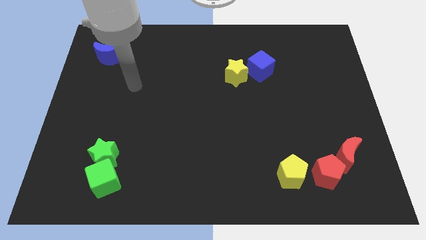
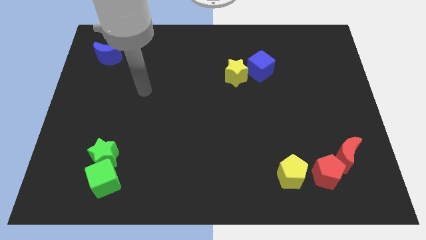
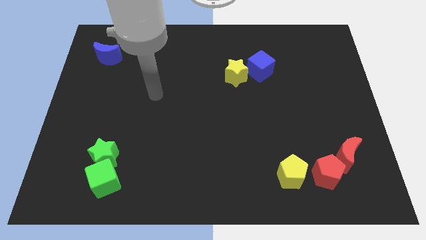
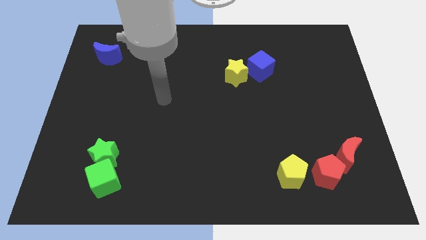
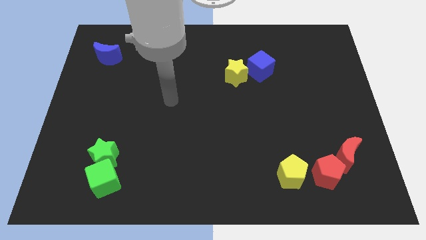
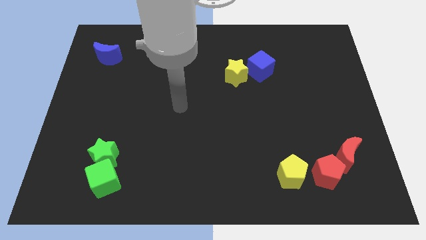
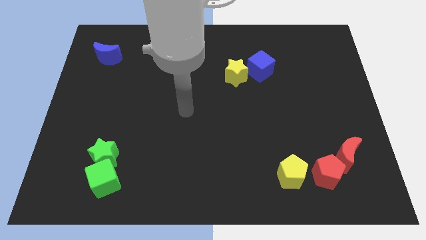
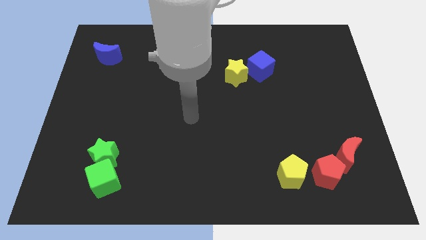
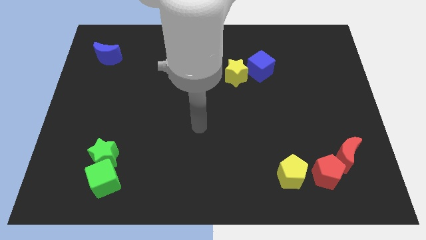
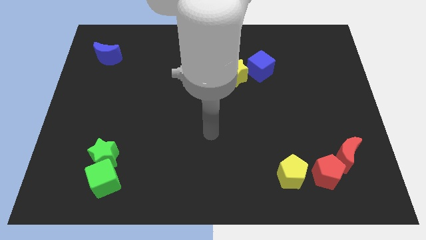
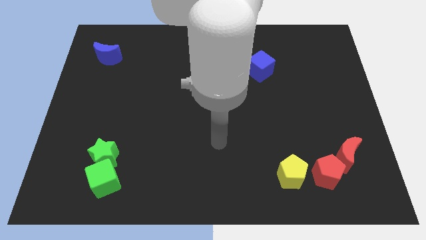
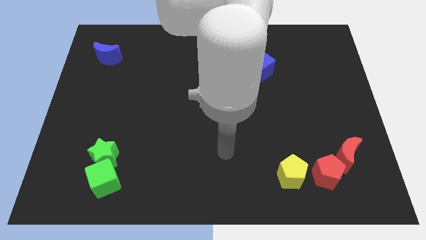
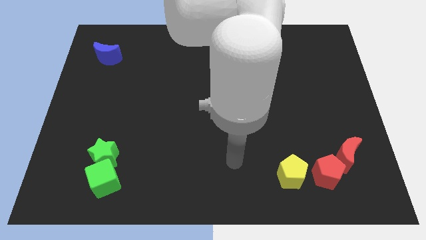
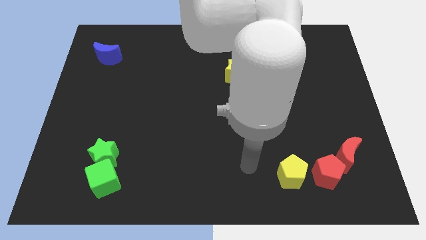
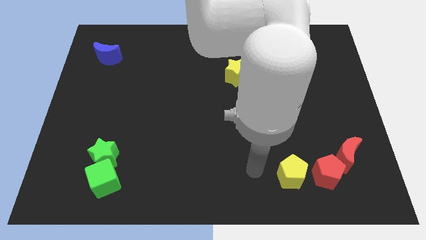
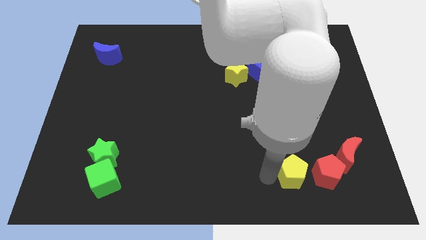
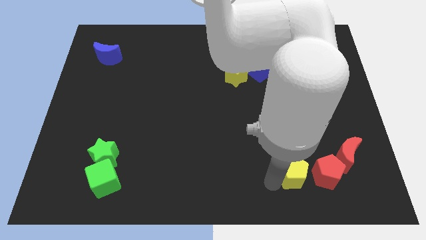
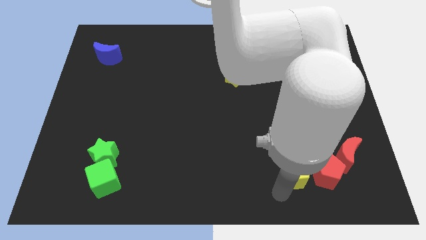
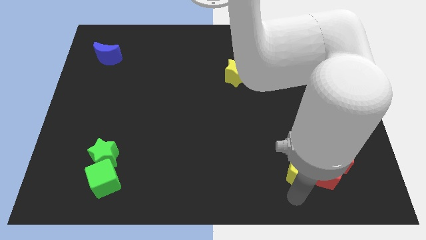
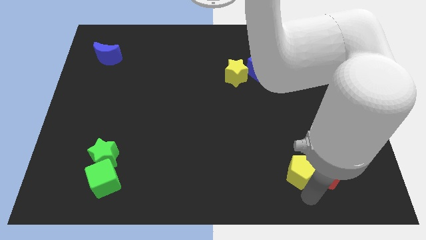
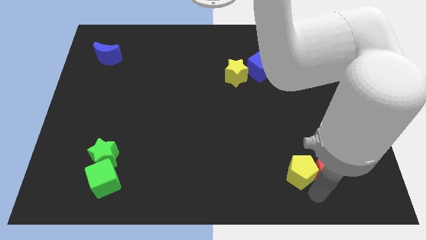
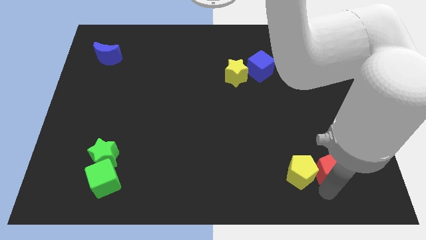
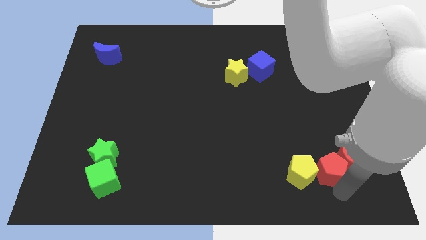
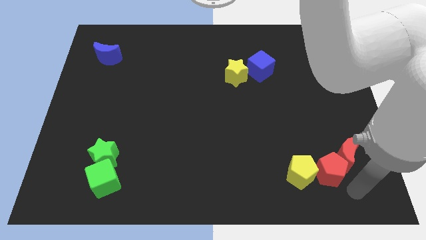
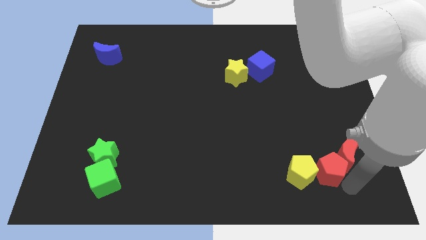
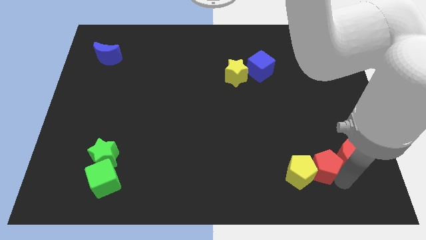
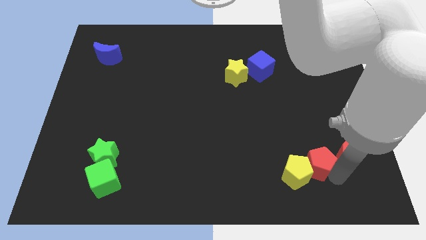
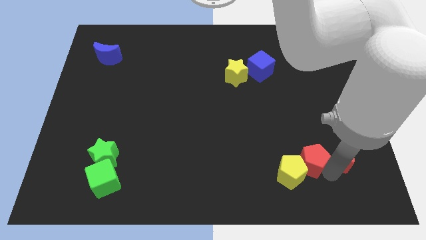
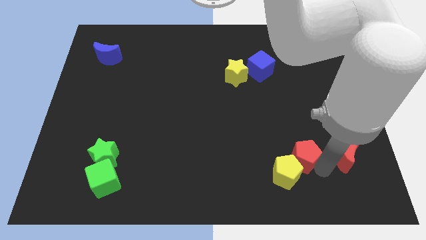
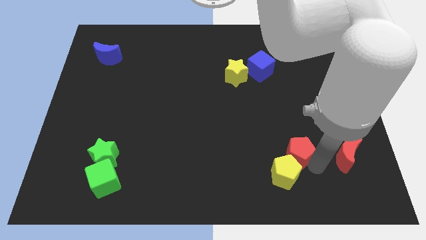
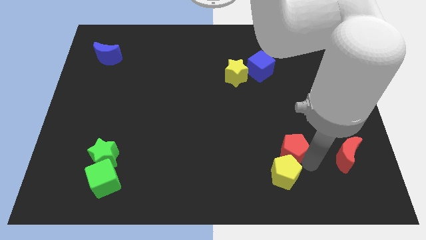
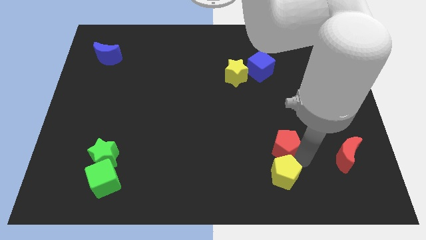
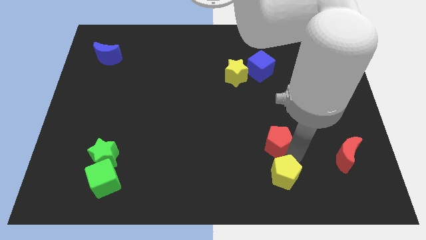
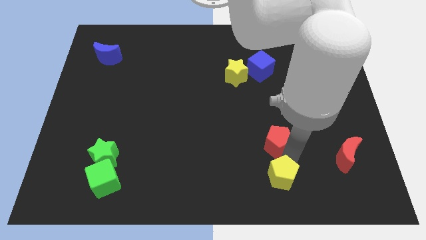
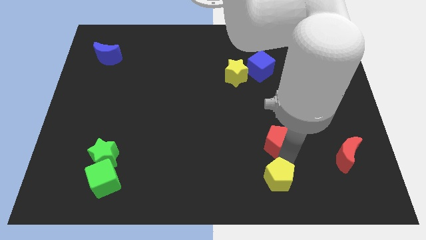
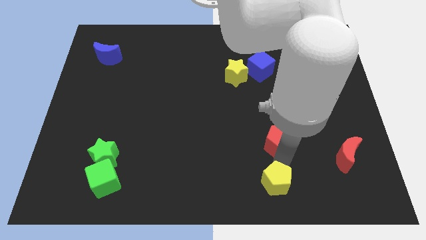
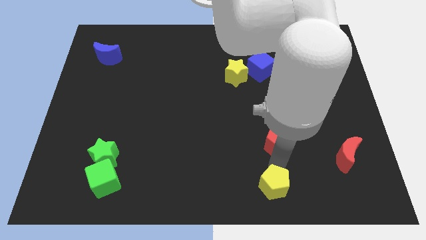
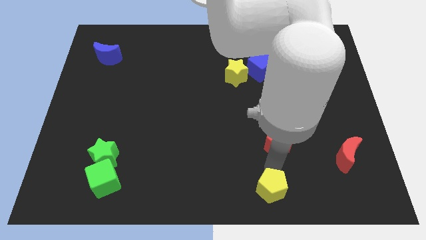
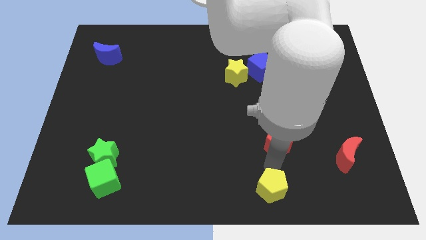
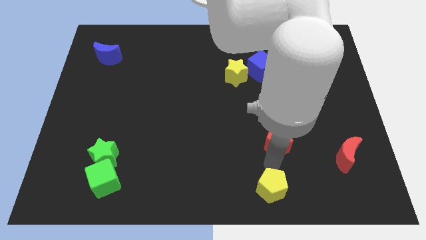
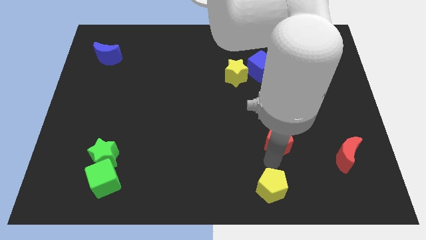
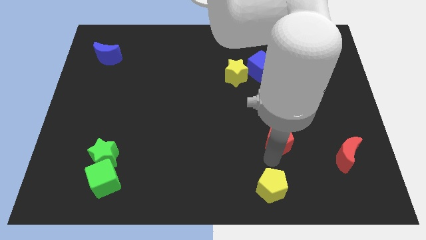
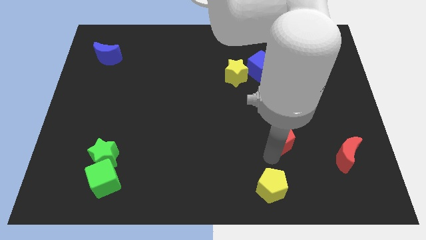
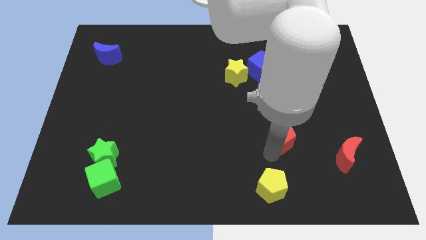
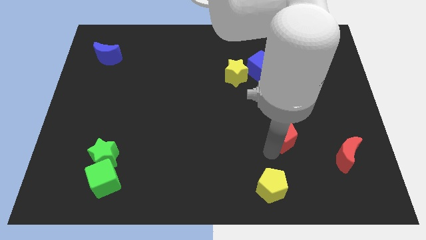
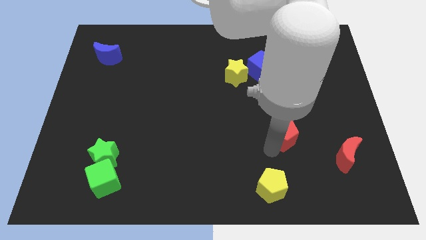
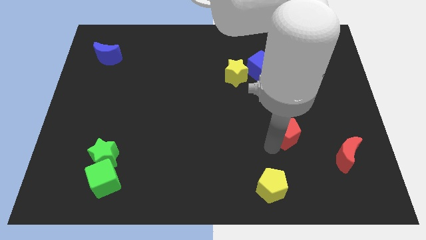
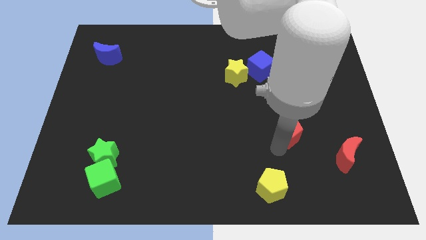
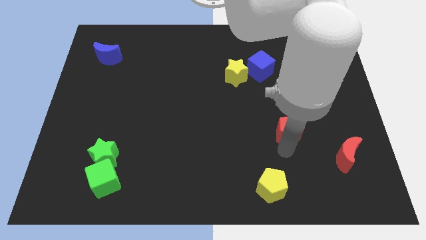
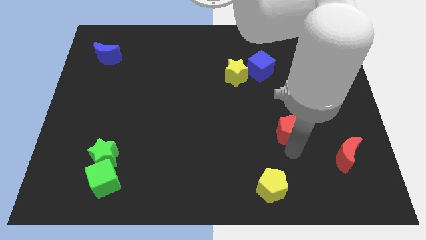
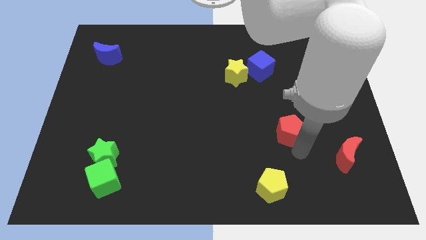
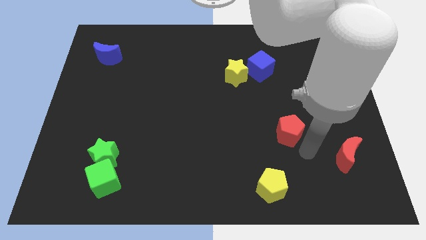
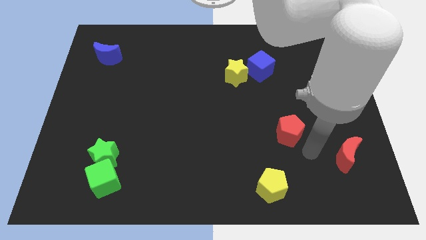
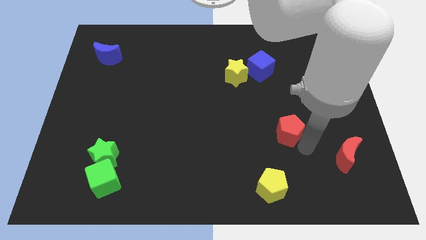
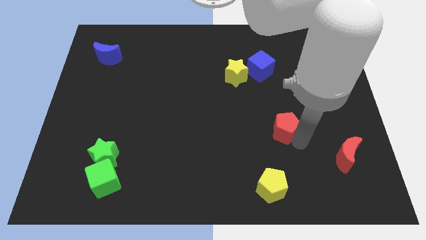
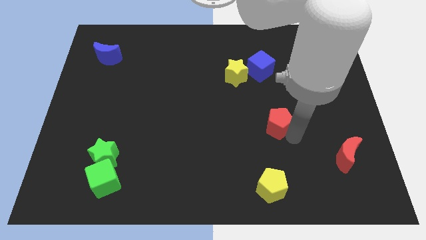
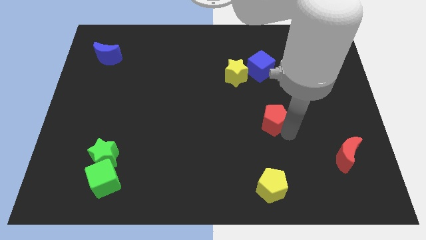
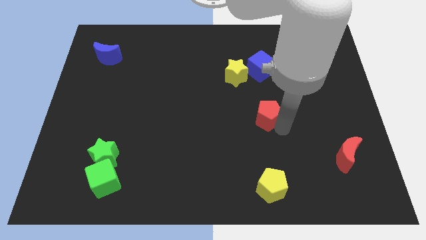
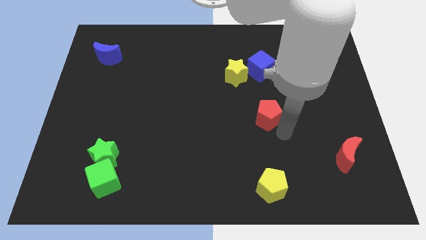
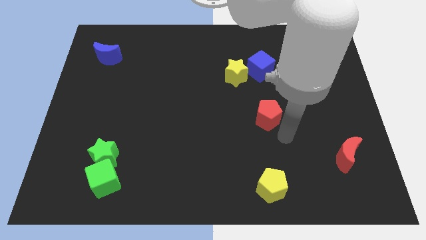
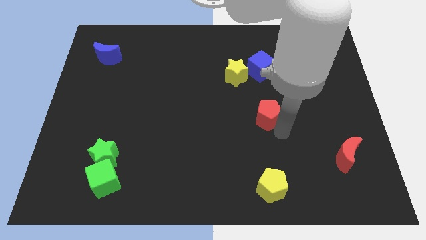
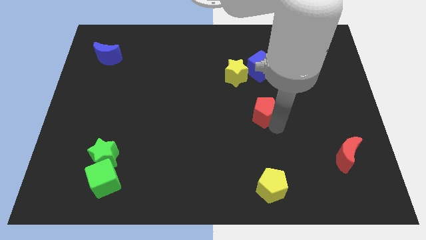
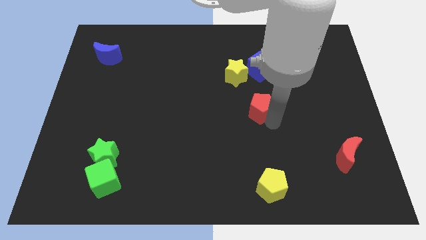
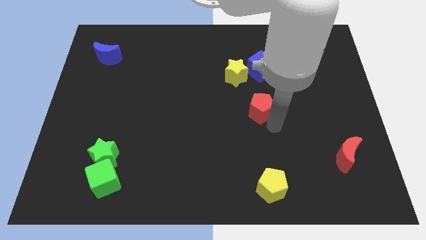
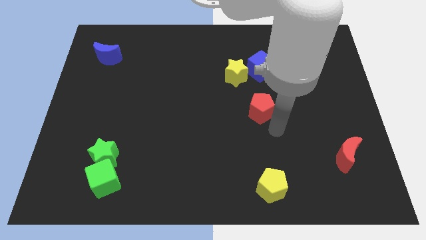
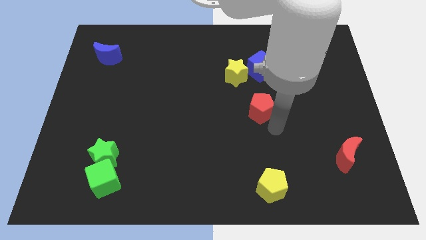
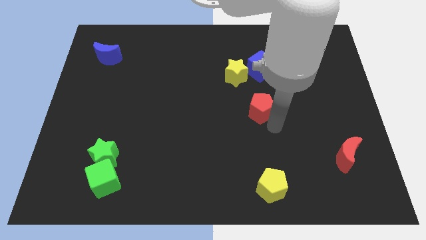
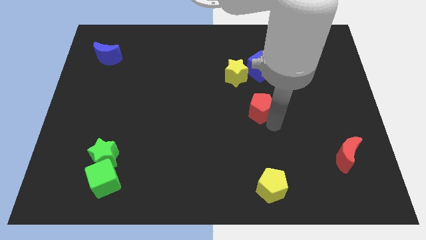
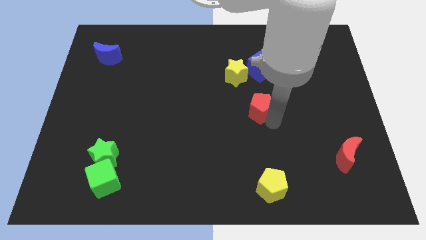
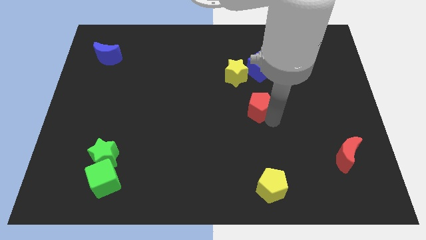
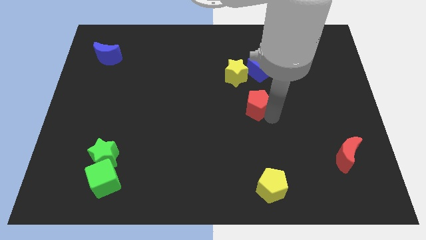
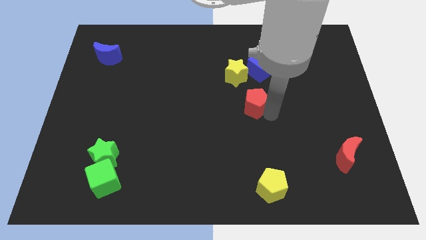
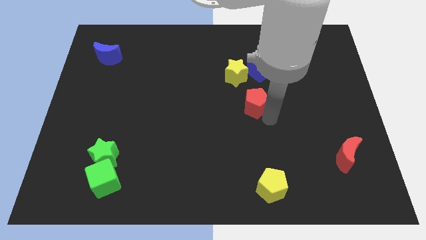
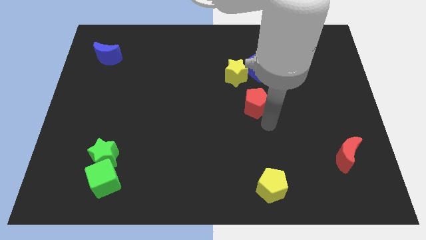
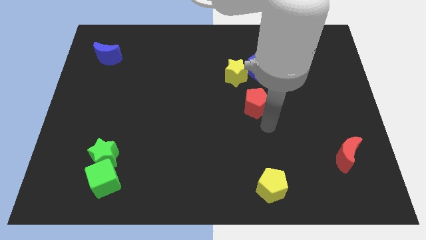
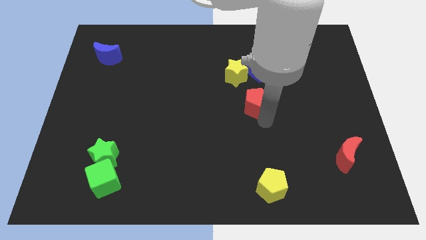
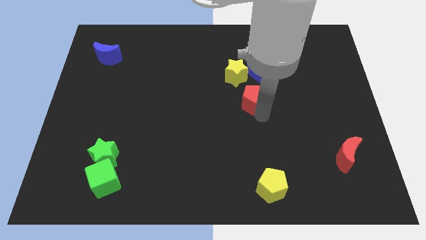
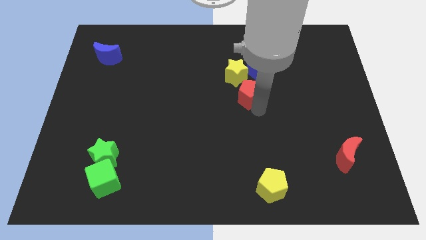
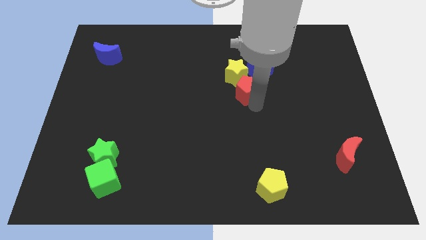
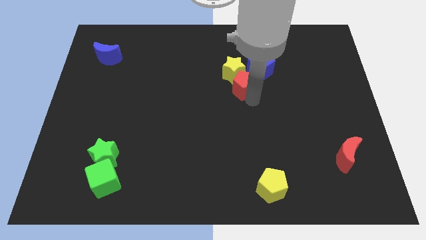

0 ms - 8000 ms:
slide the red pentagon towards the yellow star
